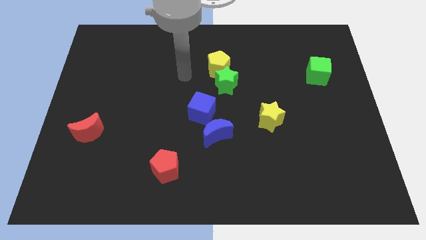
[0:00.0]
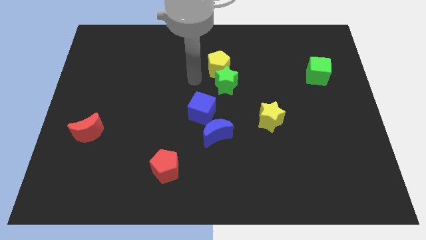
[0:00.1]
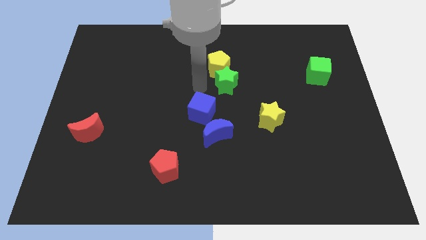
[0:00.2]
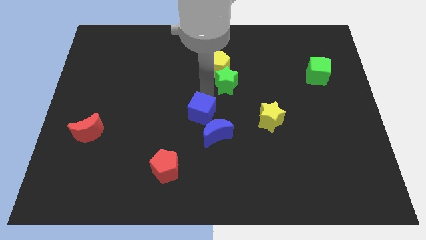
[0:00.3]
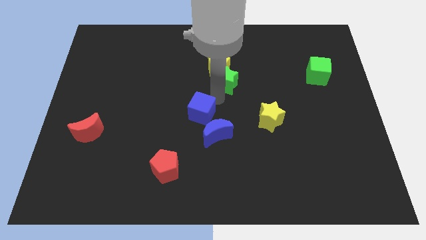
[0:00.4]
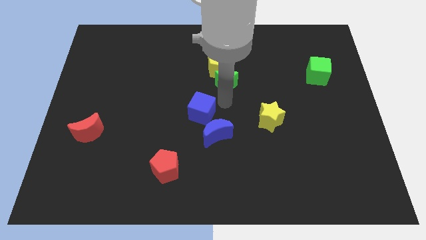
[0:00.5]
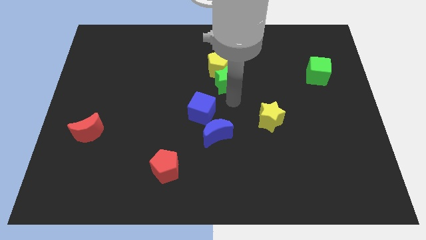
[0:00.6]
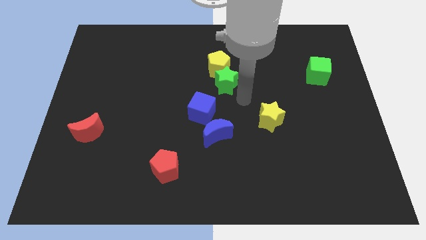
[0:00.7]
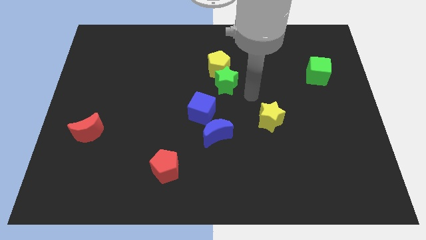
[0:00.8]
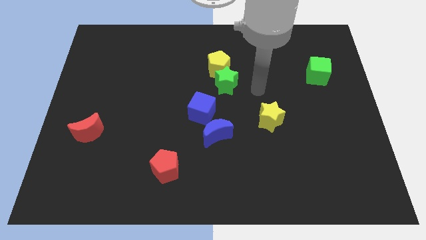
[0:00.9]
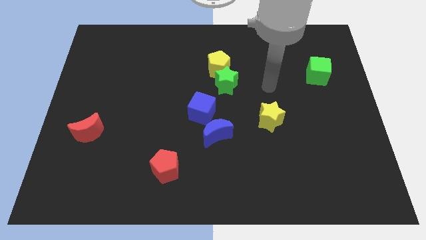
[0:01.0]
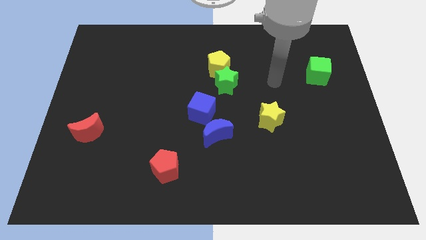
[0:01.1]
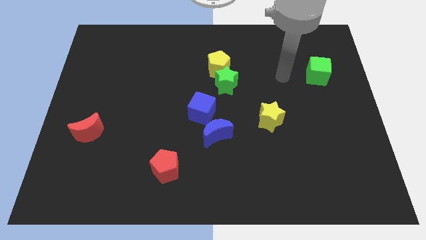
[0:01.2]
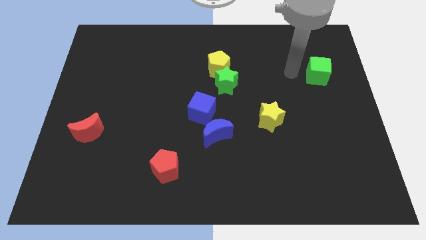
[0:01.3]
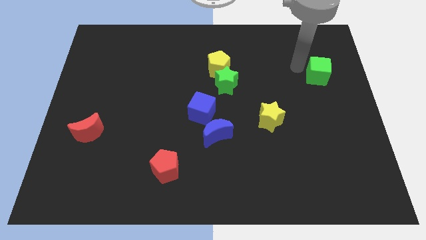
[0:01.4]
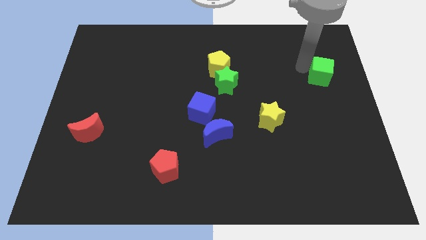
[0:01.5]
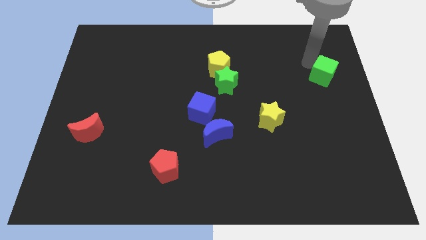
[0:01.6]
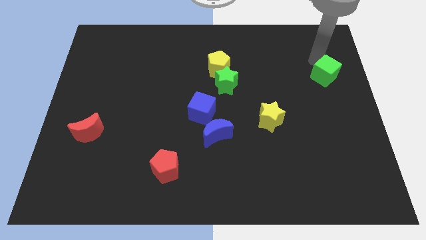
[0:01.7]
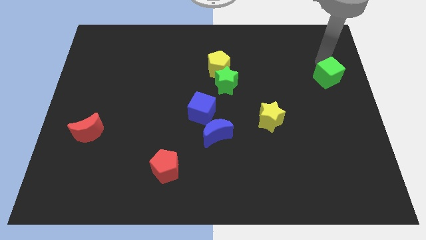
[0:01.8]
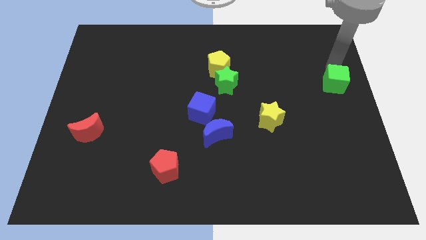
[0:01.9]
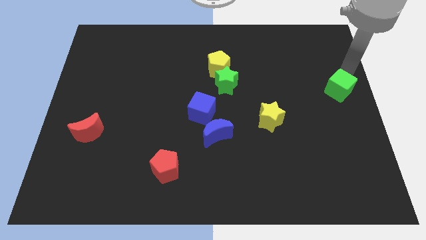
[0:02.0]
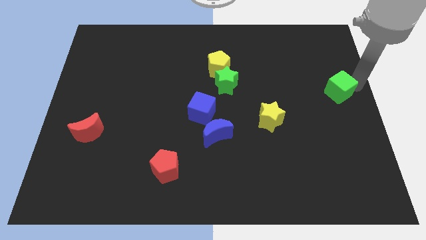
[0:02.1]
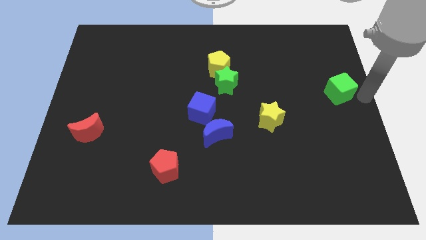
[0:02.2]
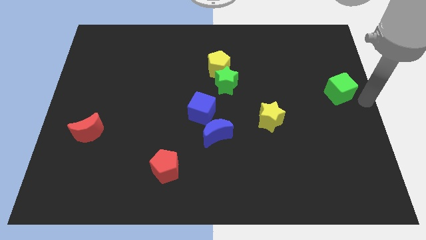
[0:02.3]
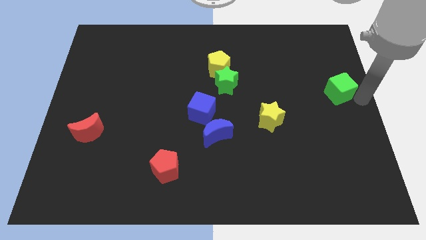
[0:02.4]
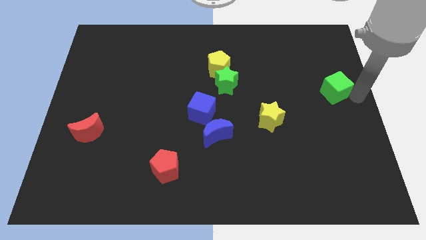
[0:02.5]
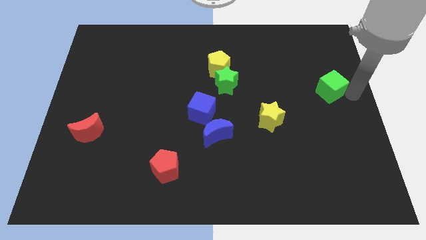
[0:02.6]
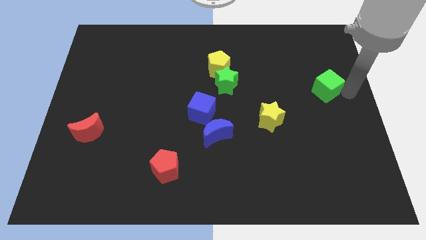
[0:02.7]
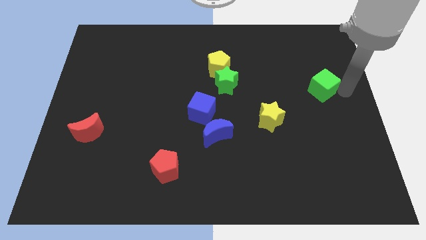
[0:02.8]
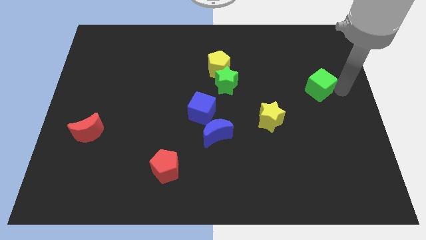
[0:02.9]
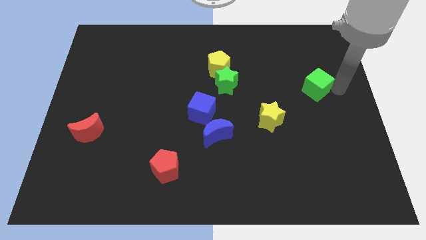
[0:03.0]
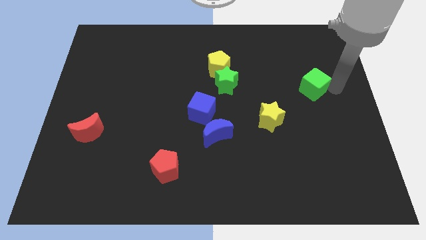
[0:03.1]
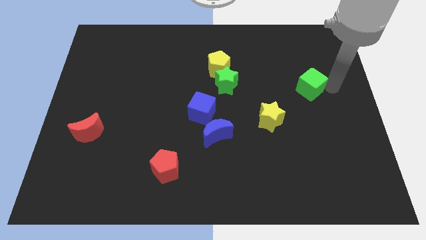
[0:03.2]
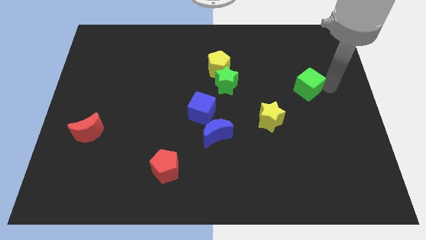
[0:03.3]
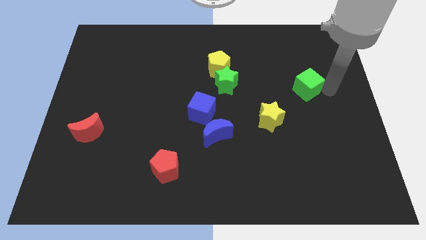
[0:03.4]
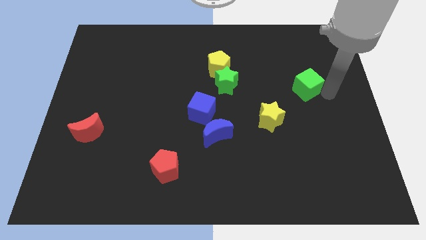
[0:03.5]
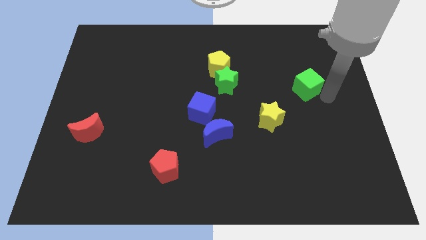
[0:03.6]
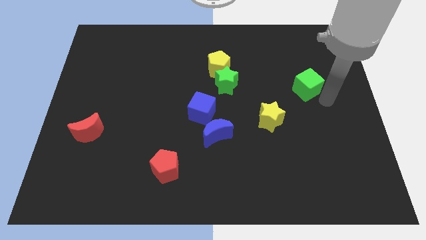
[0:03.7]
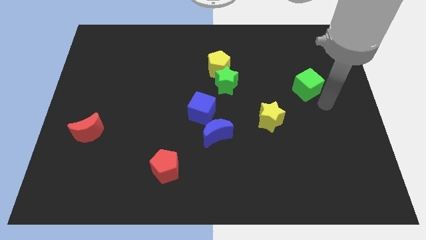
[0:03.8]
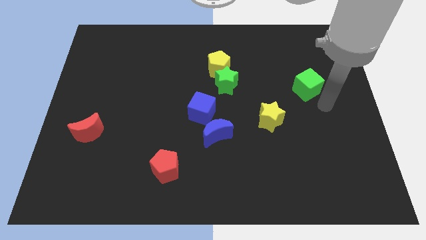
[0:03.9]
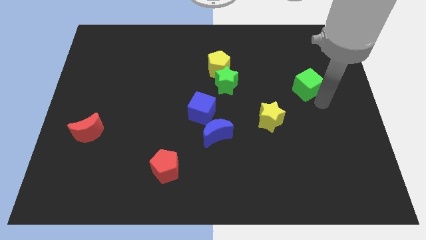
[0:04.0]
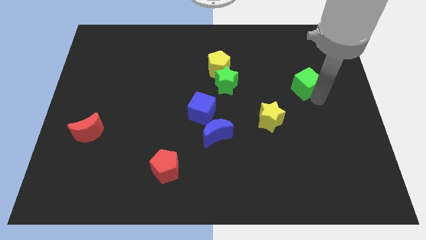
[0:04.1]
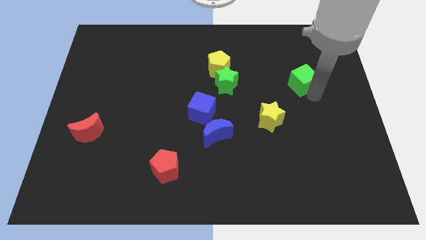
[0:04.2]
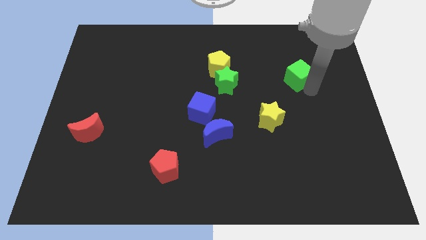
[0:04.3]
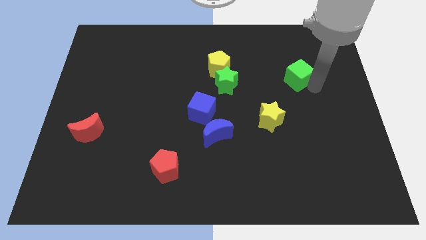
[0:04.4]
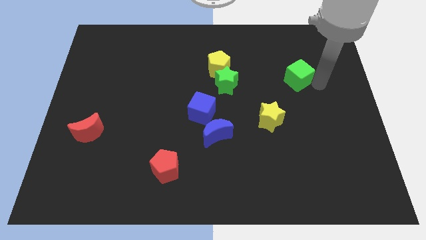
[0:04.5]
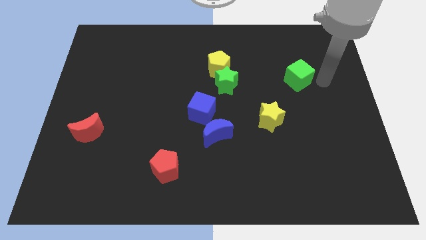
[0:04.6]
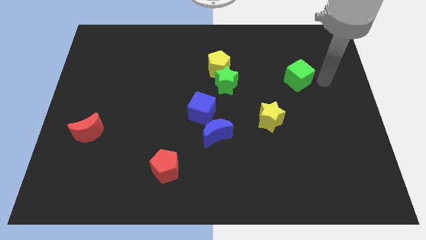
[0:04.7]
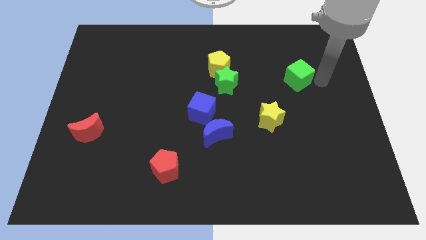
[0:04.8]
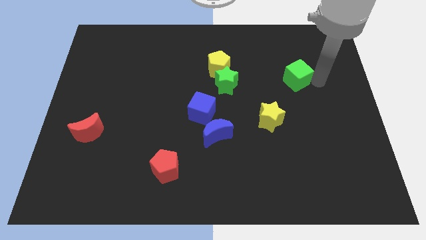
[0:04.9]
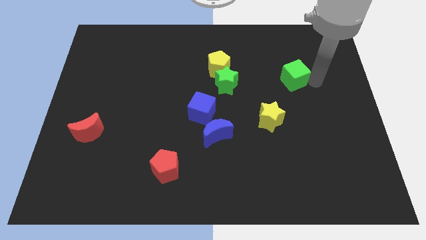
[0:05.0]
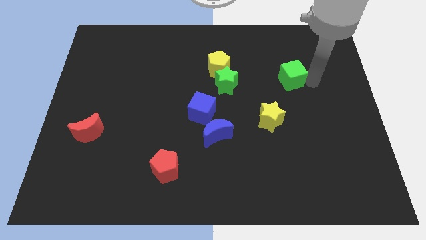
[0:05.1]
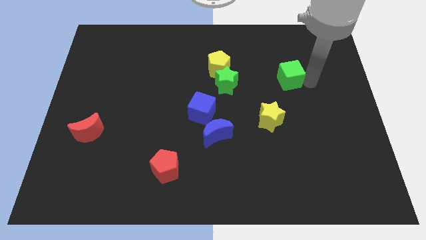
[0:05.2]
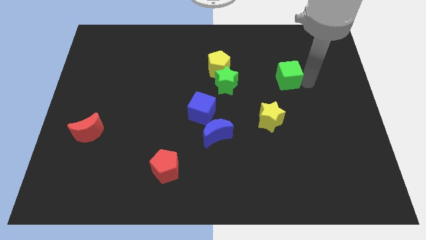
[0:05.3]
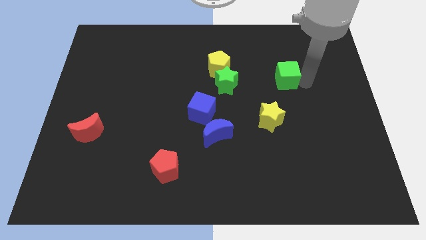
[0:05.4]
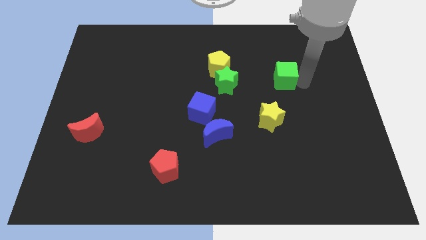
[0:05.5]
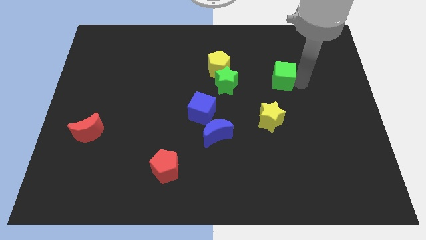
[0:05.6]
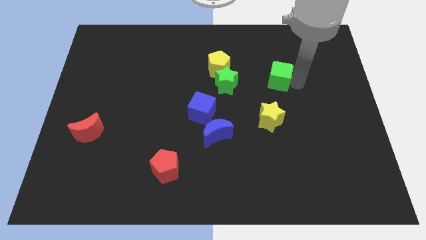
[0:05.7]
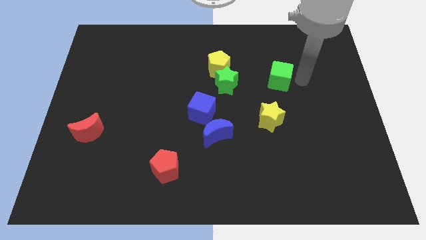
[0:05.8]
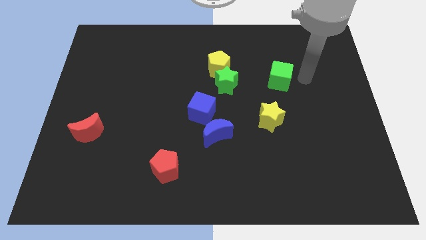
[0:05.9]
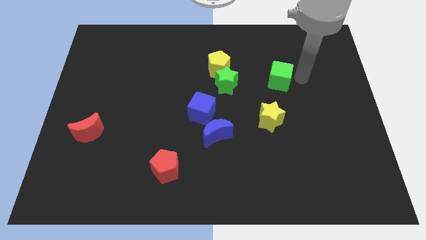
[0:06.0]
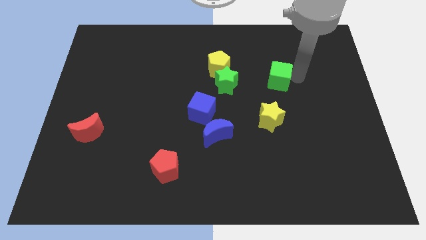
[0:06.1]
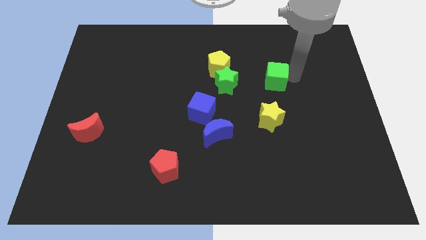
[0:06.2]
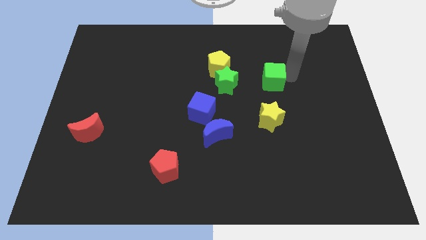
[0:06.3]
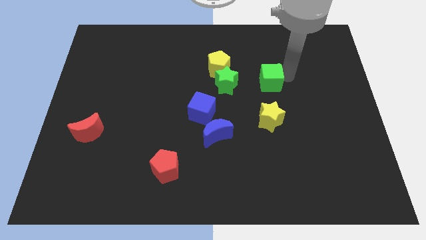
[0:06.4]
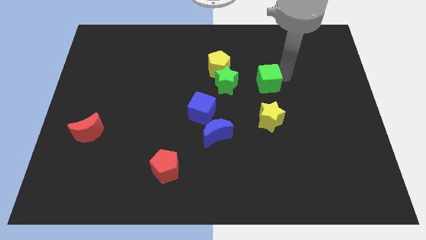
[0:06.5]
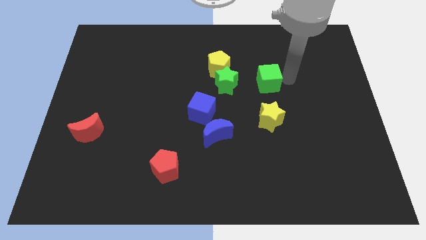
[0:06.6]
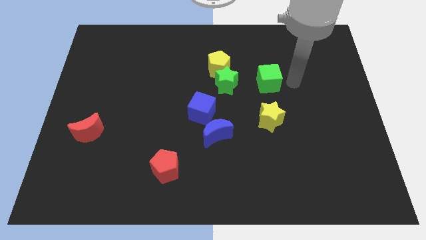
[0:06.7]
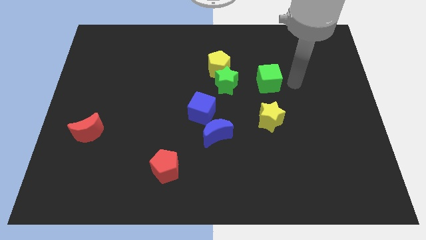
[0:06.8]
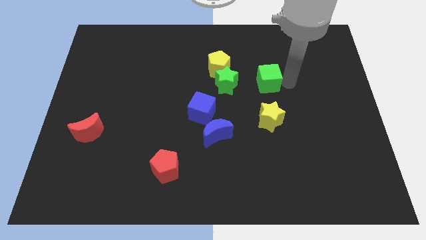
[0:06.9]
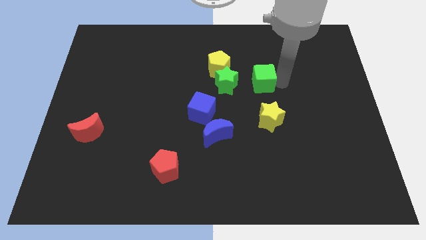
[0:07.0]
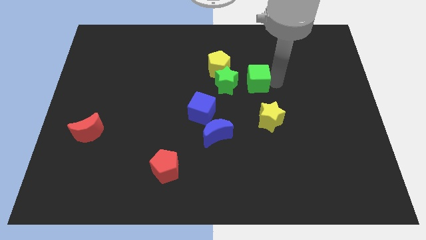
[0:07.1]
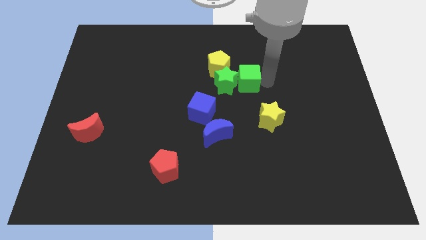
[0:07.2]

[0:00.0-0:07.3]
slide the green cube towards the green star
